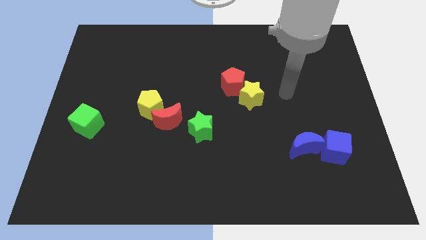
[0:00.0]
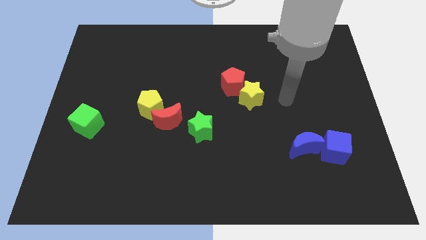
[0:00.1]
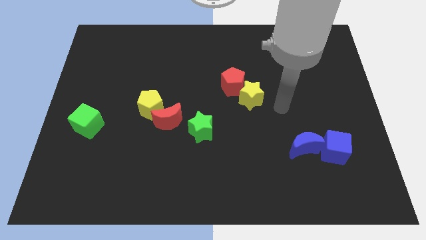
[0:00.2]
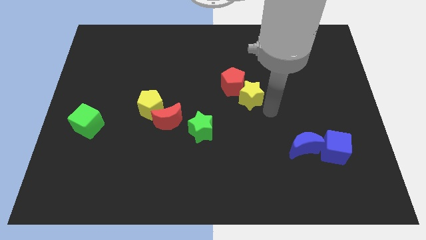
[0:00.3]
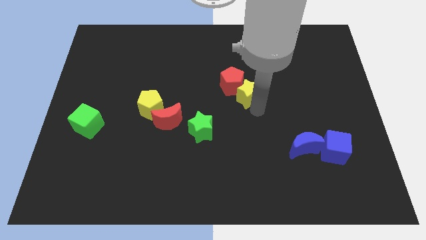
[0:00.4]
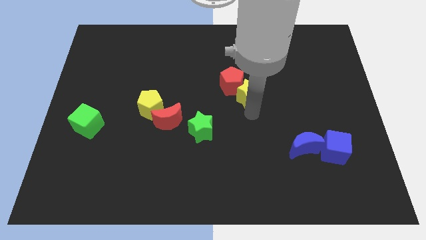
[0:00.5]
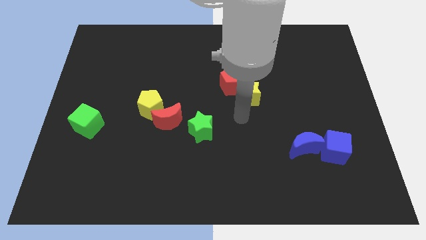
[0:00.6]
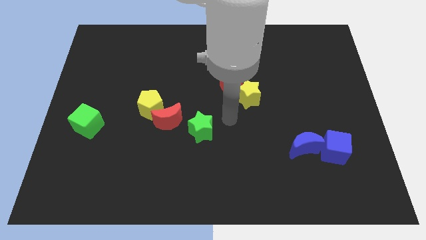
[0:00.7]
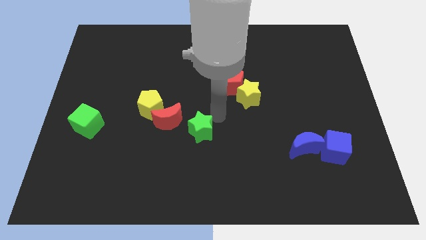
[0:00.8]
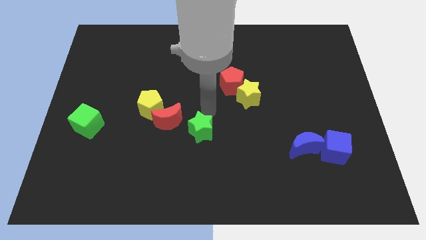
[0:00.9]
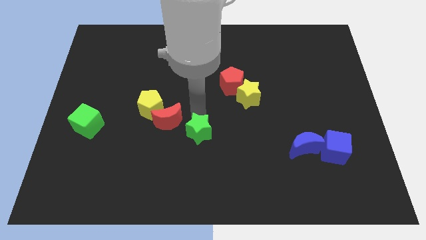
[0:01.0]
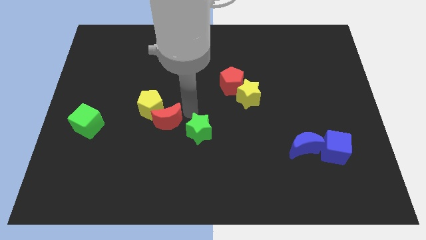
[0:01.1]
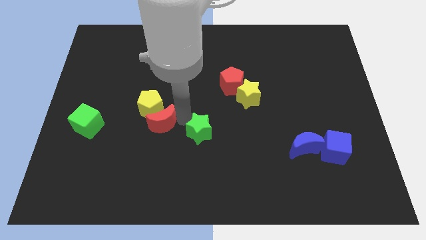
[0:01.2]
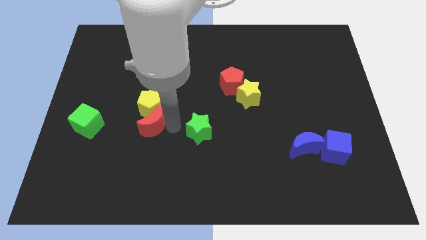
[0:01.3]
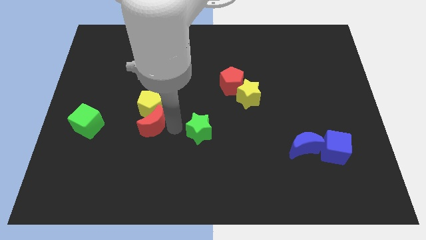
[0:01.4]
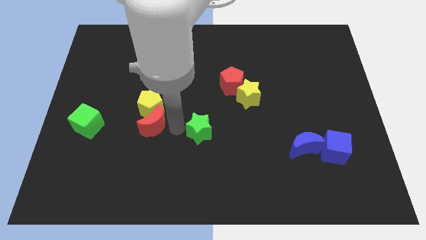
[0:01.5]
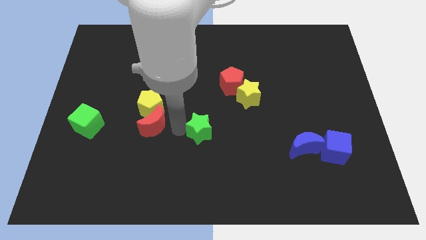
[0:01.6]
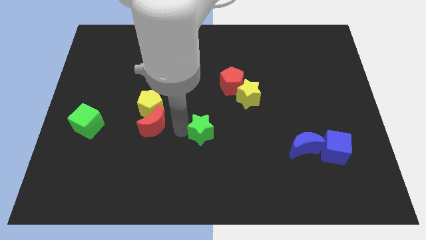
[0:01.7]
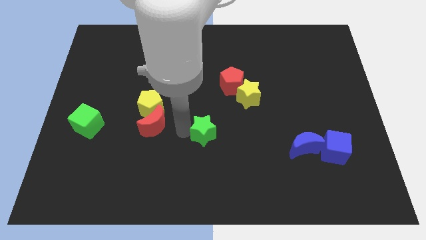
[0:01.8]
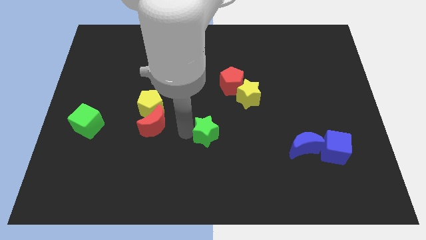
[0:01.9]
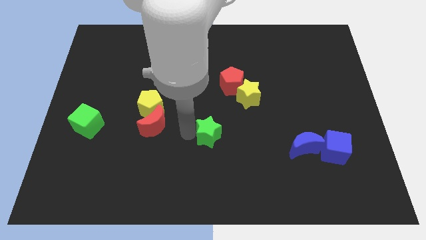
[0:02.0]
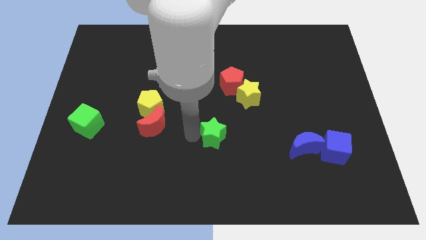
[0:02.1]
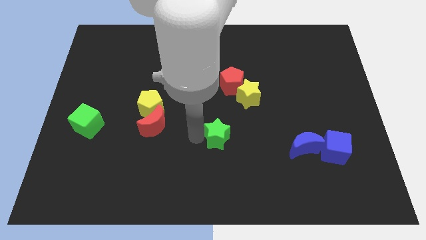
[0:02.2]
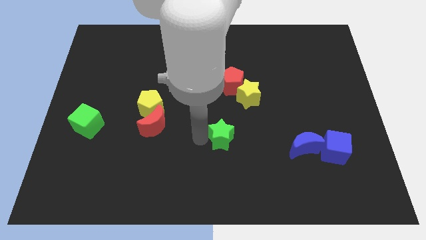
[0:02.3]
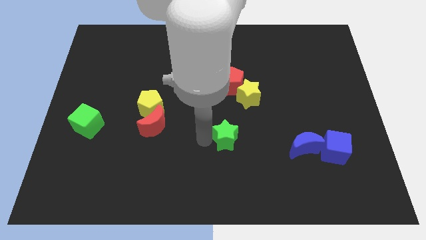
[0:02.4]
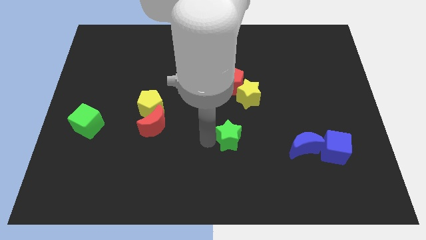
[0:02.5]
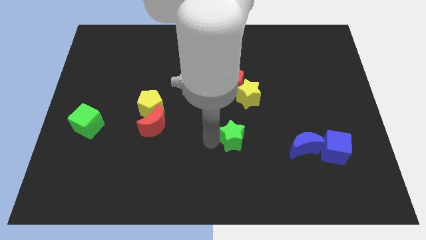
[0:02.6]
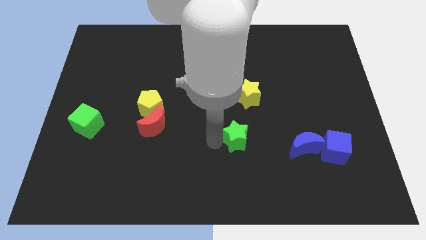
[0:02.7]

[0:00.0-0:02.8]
push the green star a bit to the right

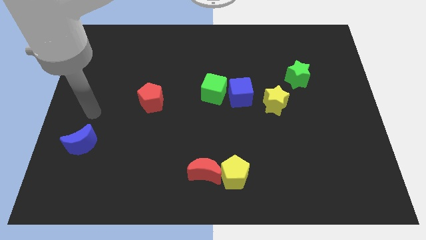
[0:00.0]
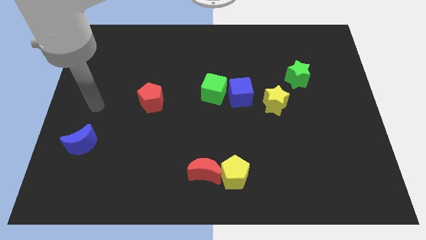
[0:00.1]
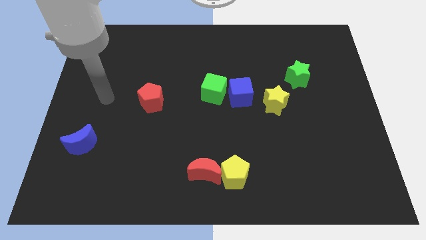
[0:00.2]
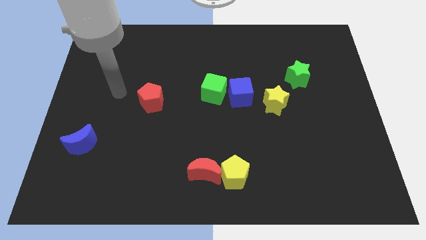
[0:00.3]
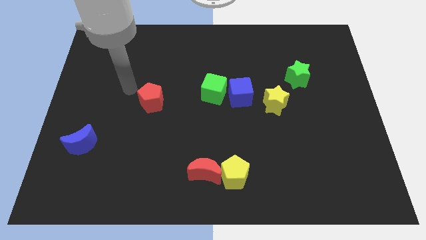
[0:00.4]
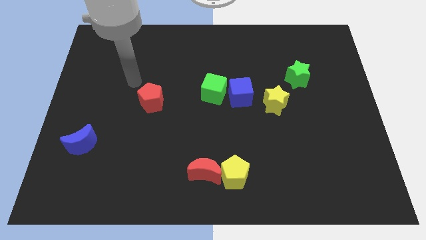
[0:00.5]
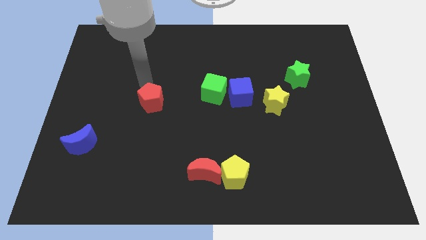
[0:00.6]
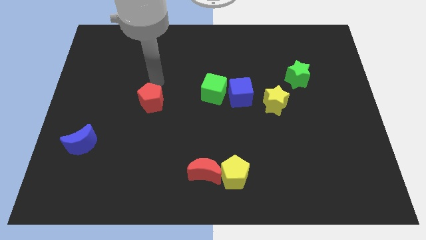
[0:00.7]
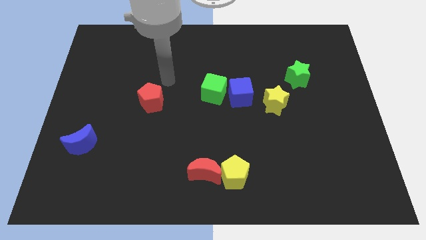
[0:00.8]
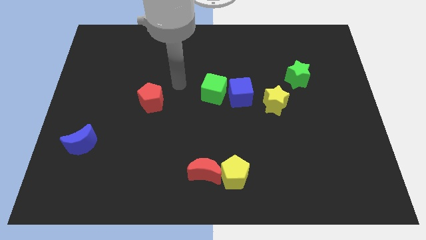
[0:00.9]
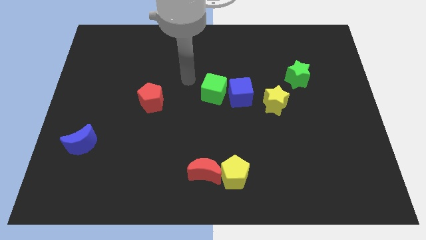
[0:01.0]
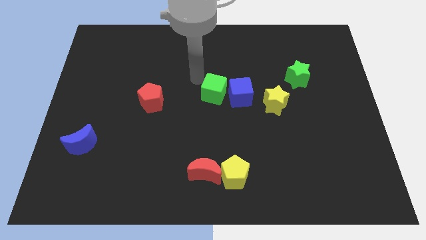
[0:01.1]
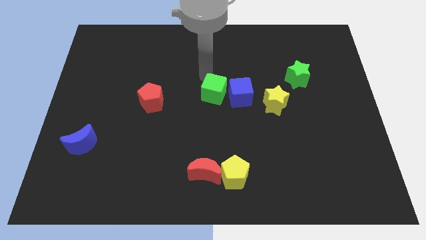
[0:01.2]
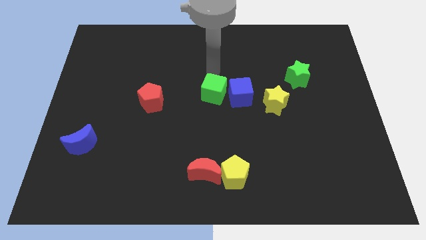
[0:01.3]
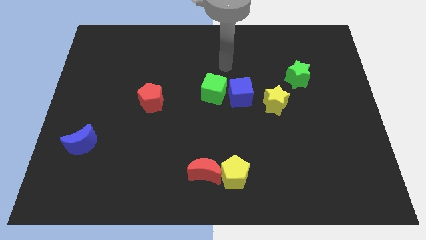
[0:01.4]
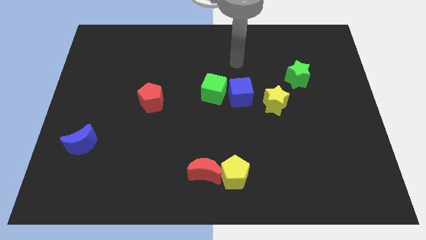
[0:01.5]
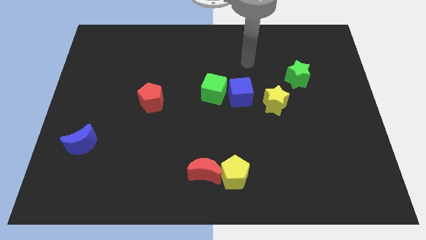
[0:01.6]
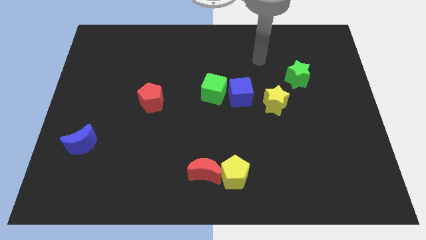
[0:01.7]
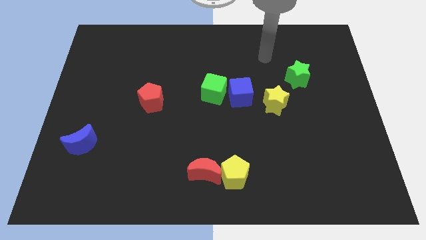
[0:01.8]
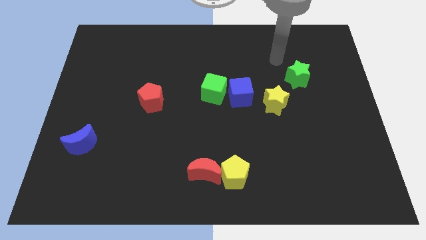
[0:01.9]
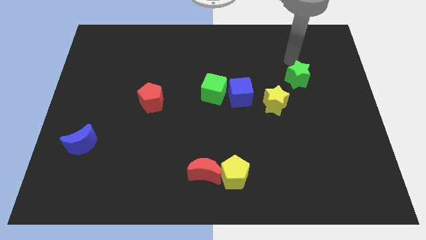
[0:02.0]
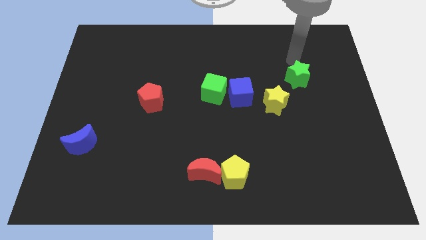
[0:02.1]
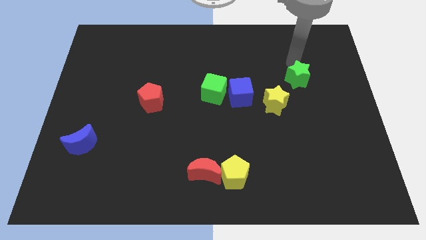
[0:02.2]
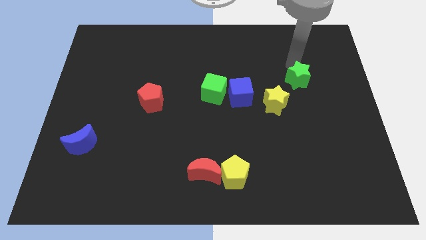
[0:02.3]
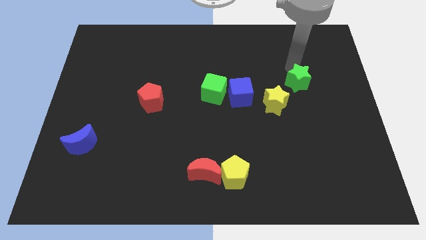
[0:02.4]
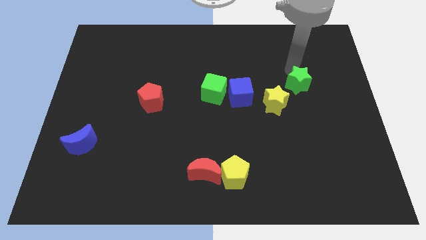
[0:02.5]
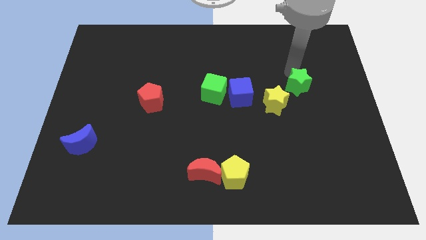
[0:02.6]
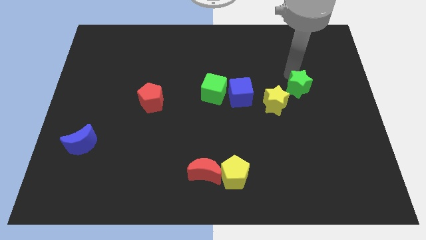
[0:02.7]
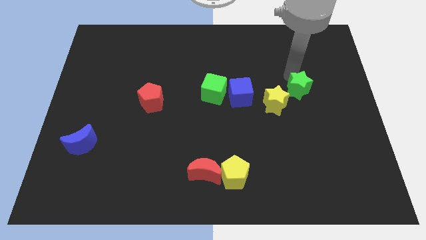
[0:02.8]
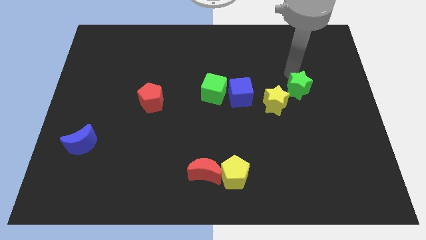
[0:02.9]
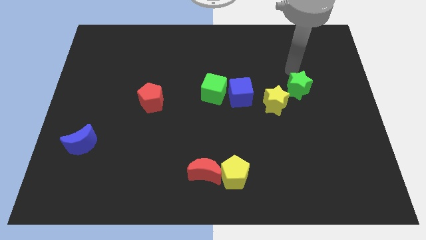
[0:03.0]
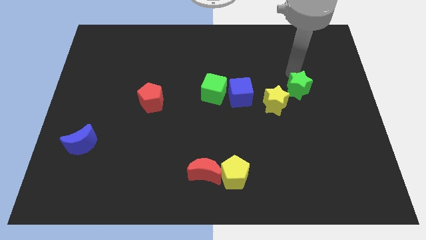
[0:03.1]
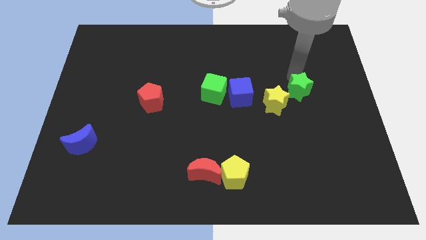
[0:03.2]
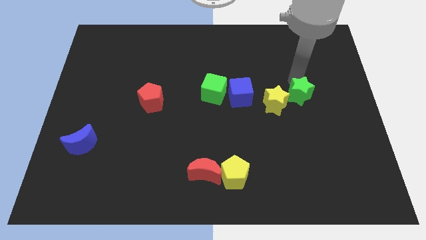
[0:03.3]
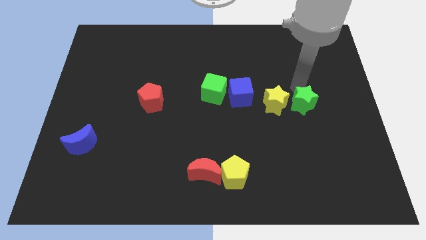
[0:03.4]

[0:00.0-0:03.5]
slightly move the green star downwards

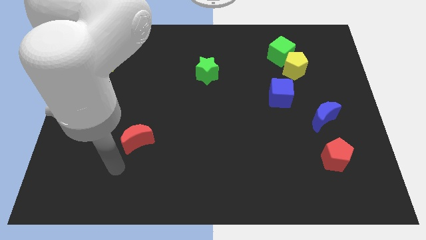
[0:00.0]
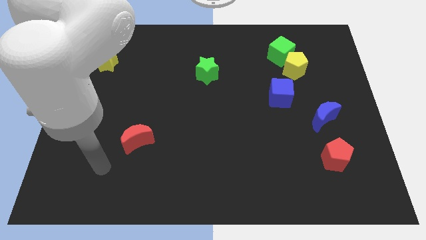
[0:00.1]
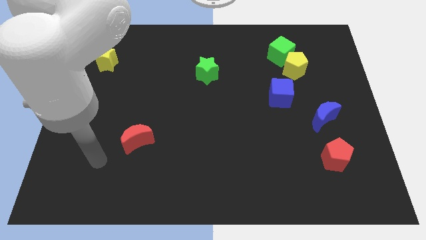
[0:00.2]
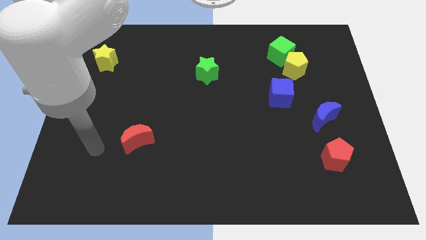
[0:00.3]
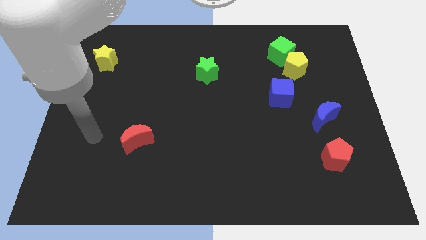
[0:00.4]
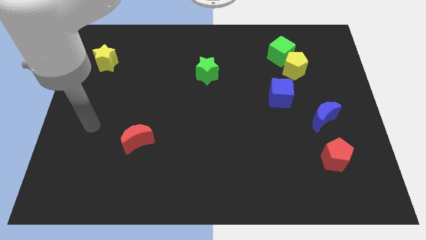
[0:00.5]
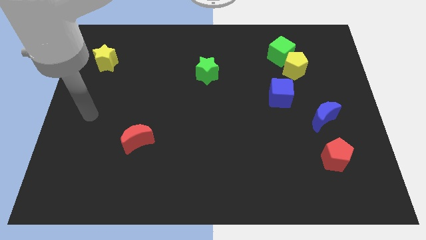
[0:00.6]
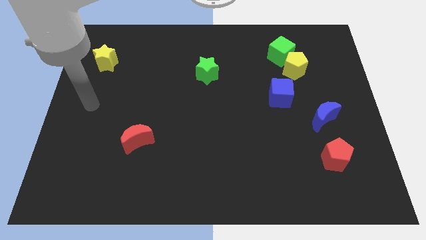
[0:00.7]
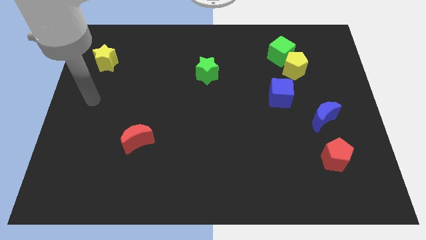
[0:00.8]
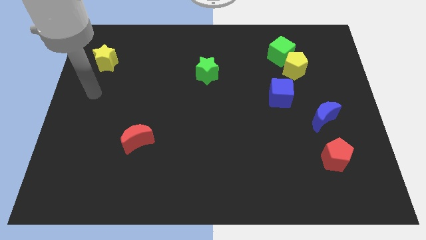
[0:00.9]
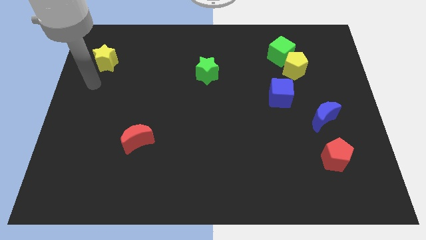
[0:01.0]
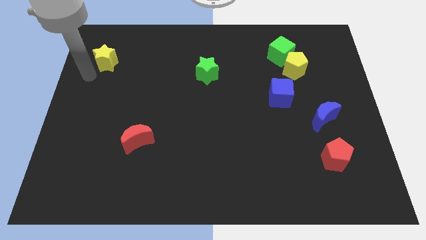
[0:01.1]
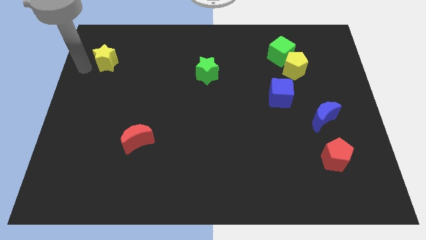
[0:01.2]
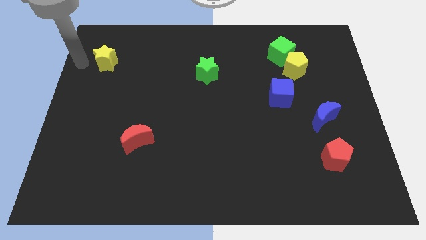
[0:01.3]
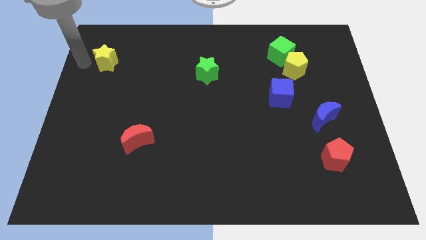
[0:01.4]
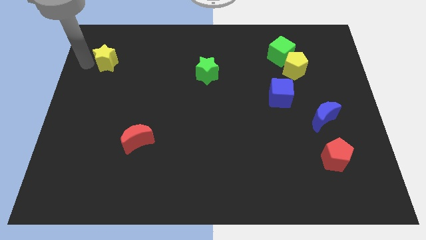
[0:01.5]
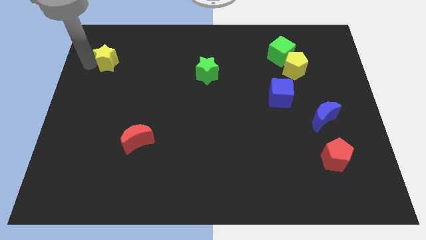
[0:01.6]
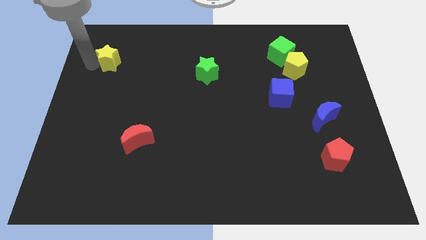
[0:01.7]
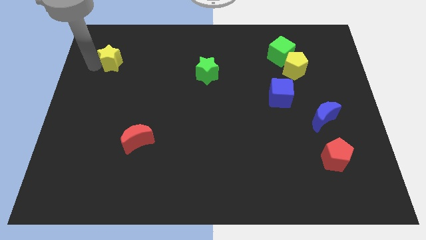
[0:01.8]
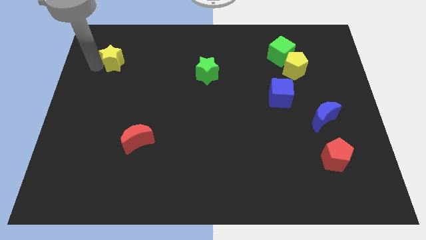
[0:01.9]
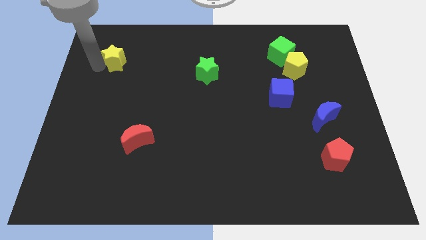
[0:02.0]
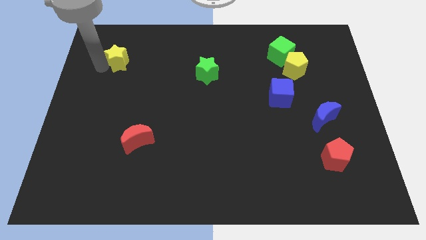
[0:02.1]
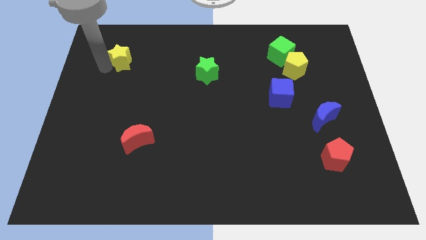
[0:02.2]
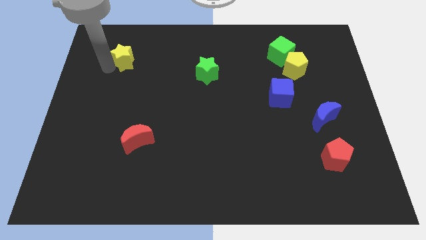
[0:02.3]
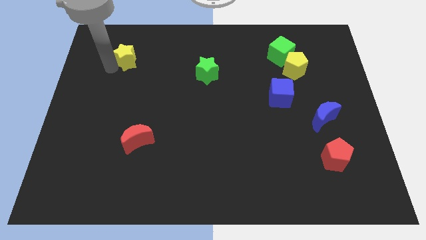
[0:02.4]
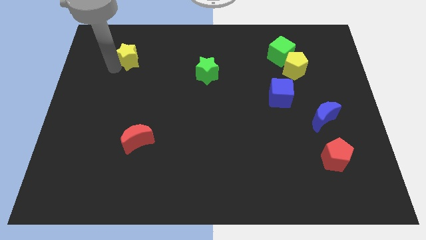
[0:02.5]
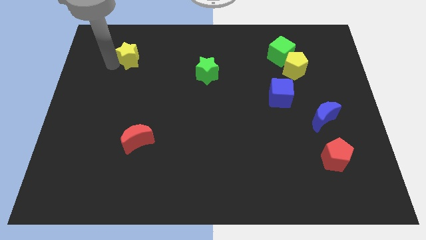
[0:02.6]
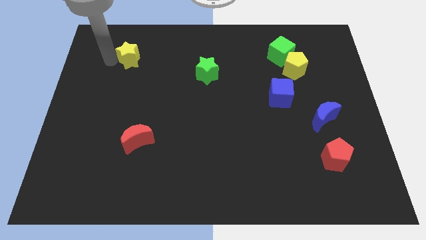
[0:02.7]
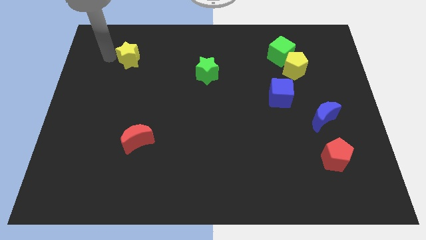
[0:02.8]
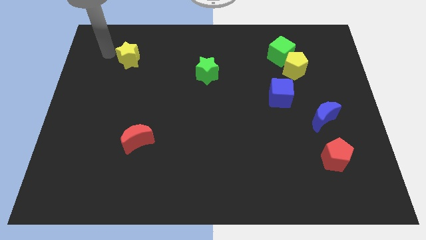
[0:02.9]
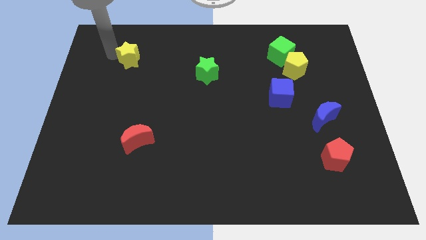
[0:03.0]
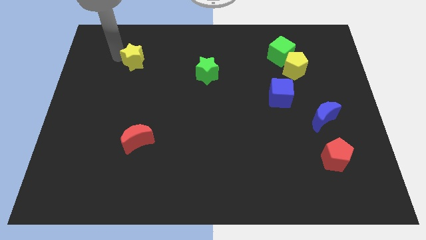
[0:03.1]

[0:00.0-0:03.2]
move the yellow star right a little bit
